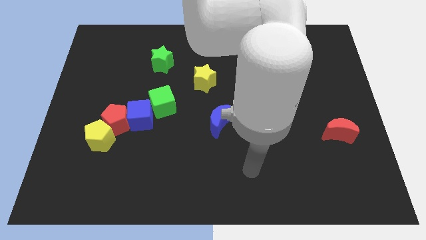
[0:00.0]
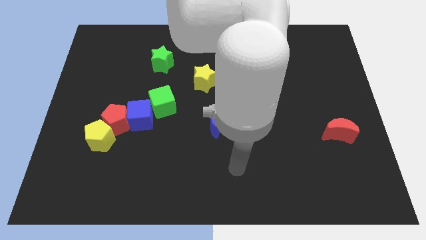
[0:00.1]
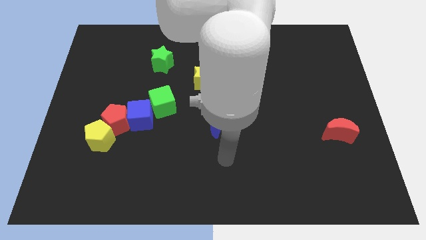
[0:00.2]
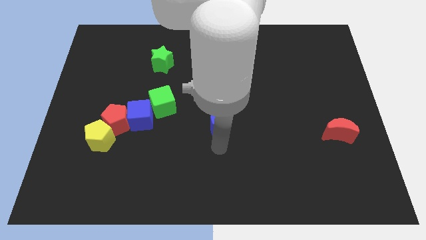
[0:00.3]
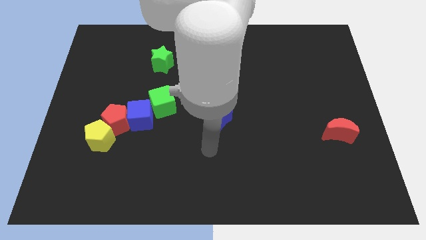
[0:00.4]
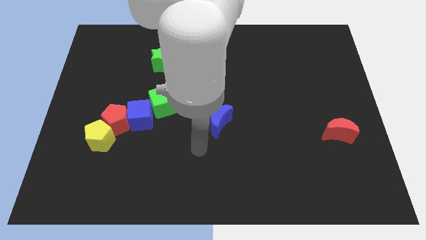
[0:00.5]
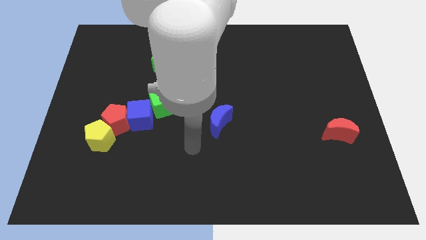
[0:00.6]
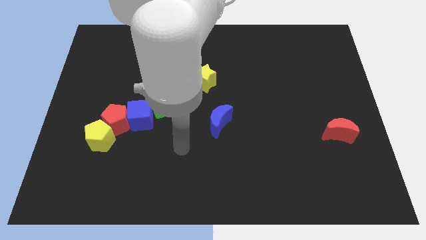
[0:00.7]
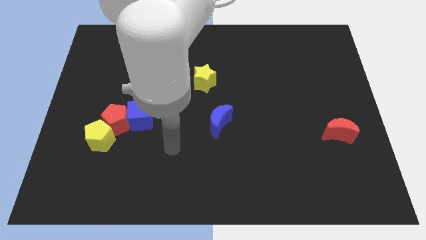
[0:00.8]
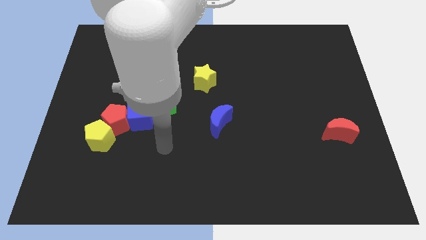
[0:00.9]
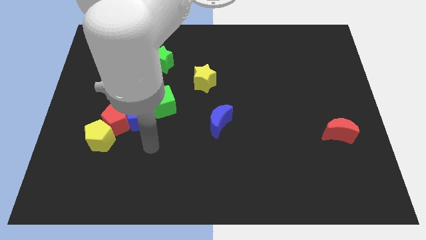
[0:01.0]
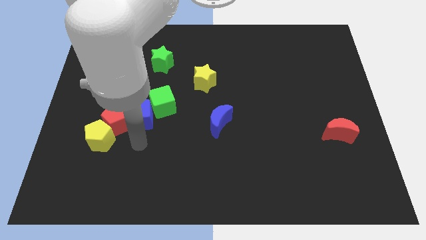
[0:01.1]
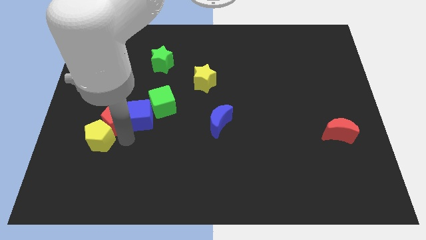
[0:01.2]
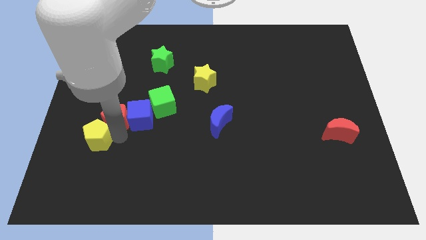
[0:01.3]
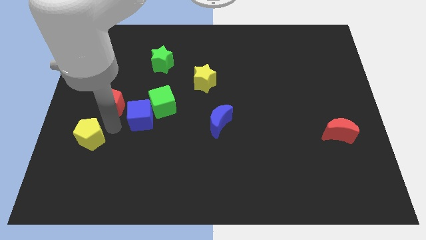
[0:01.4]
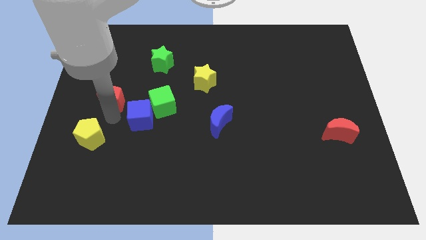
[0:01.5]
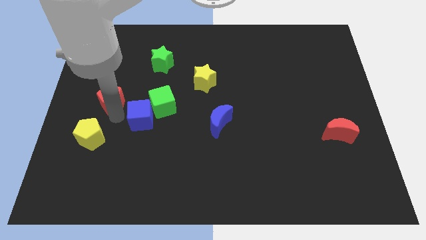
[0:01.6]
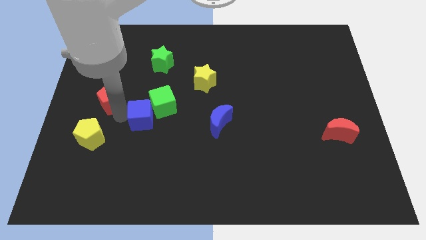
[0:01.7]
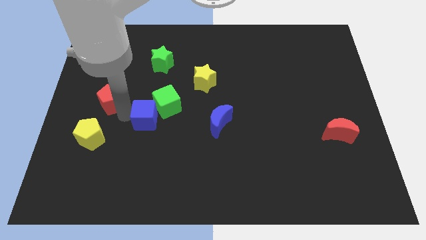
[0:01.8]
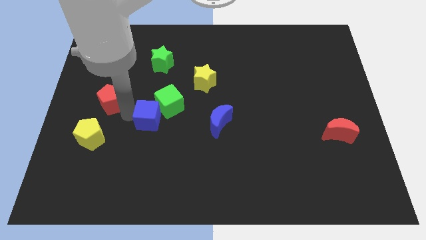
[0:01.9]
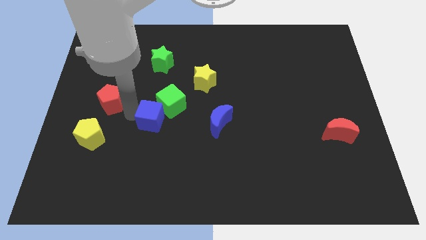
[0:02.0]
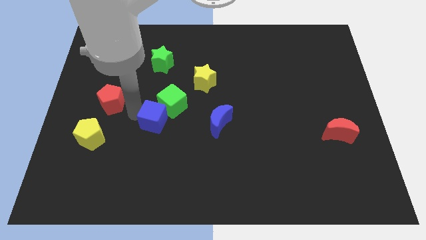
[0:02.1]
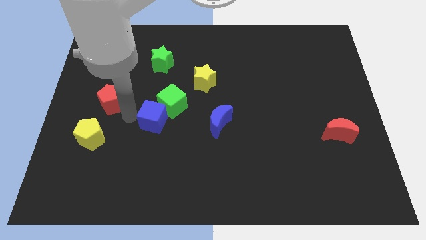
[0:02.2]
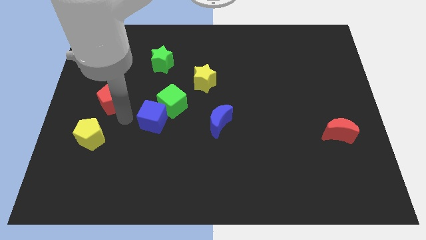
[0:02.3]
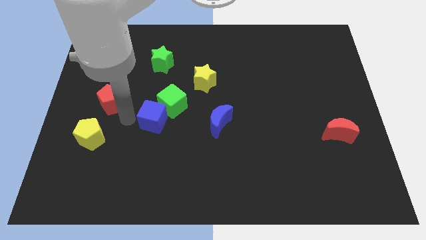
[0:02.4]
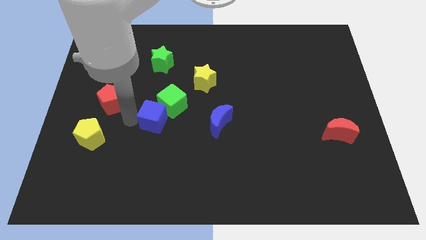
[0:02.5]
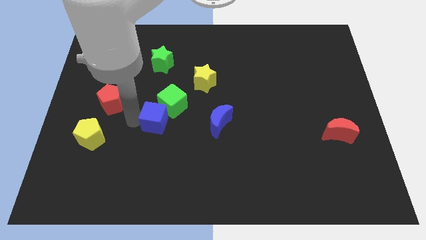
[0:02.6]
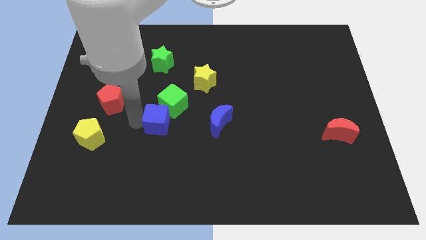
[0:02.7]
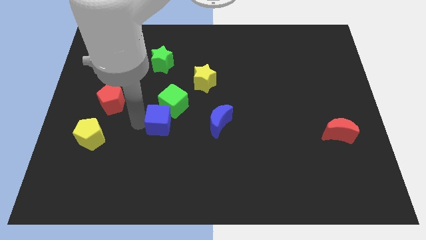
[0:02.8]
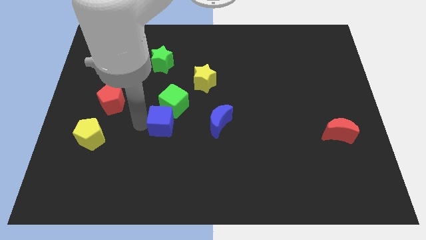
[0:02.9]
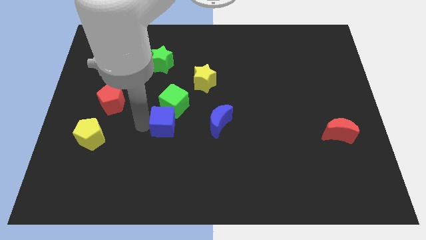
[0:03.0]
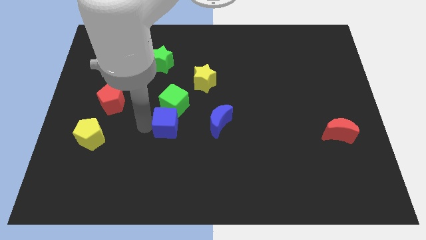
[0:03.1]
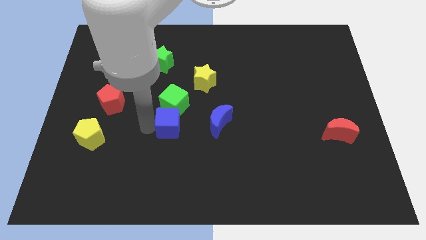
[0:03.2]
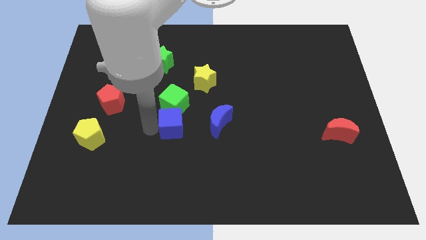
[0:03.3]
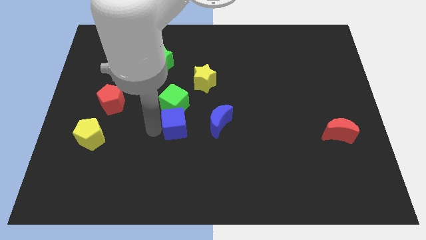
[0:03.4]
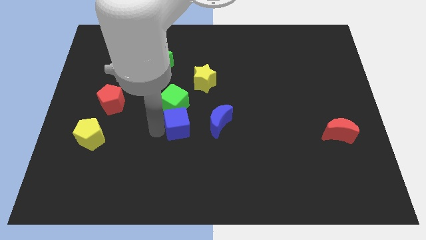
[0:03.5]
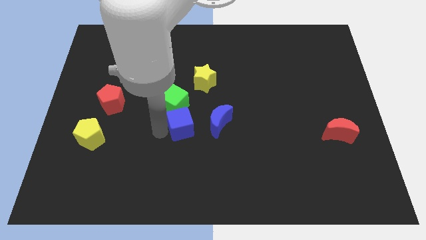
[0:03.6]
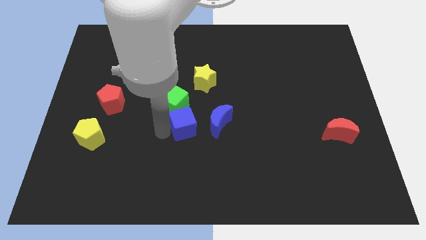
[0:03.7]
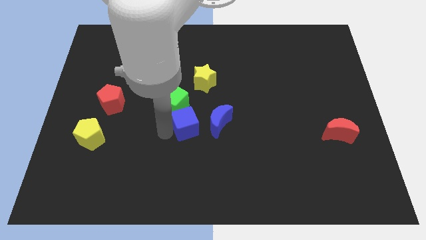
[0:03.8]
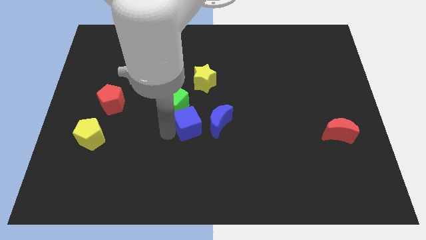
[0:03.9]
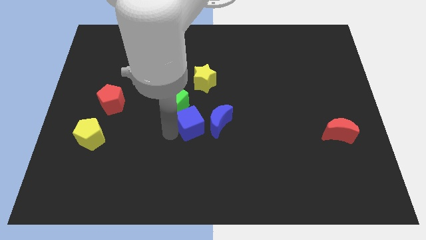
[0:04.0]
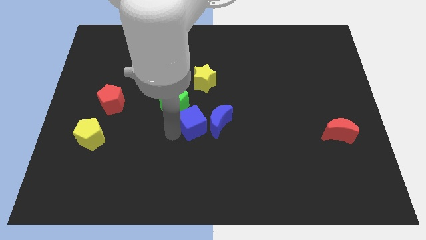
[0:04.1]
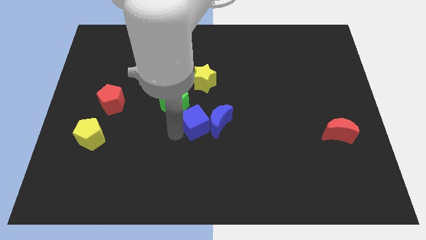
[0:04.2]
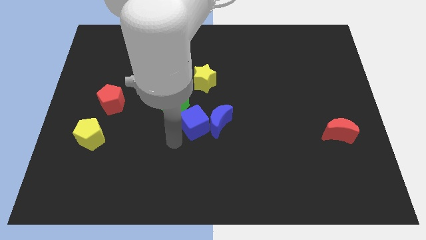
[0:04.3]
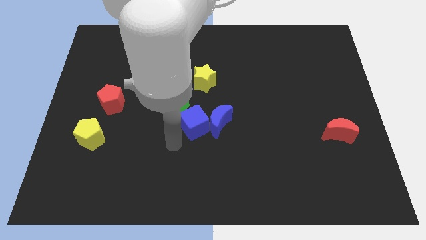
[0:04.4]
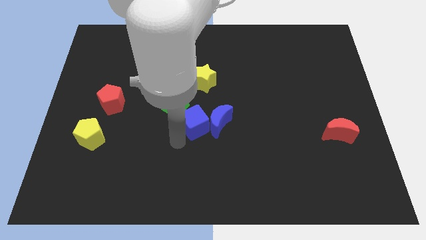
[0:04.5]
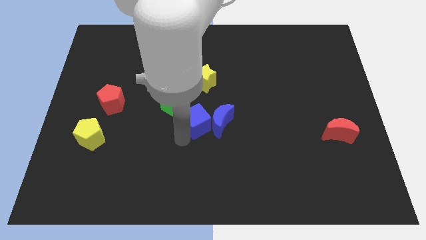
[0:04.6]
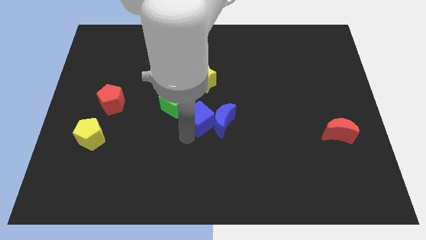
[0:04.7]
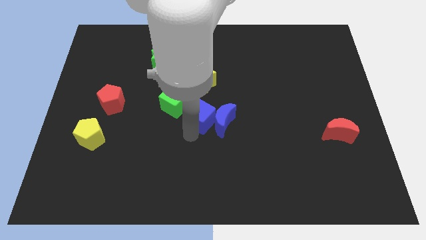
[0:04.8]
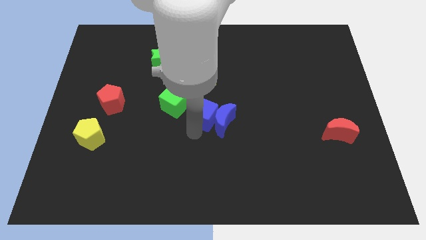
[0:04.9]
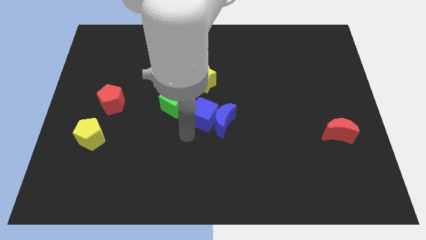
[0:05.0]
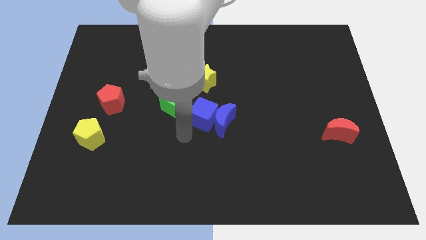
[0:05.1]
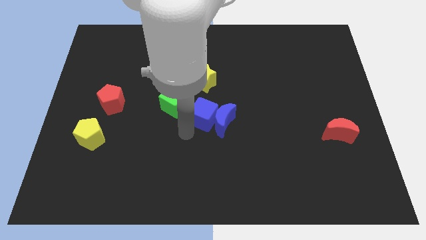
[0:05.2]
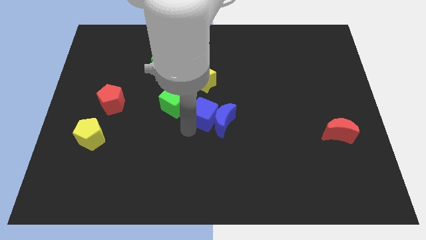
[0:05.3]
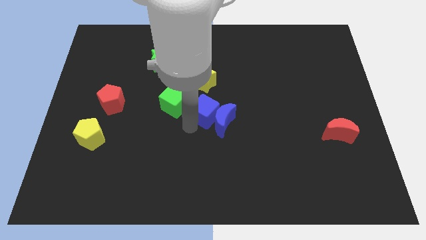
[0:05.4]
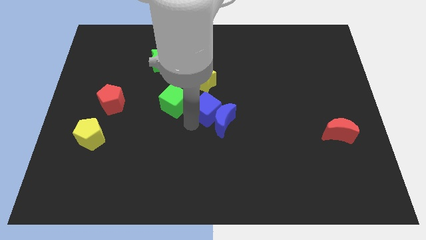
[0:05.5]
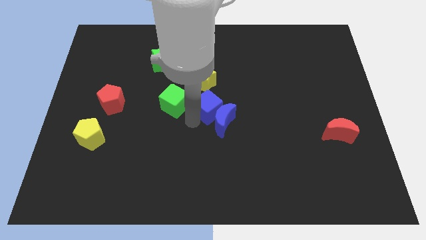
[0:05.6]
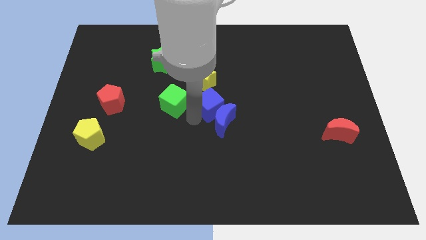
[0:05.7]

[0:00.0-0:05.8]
move the blue cube to the bottom right side of the yellow star

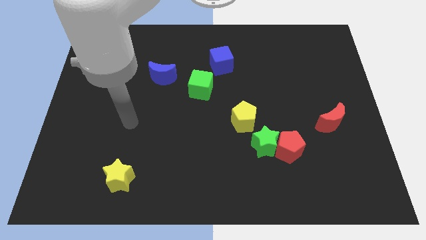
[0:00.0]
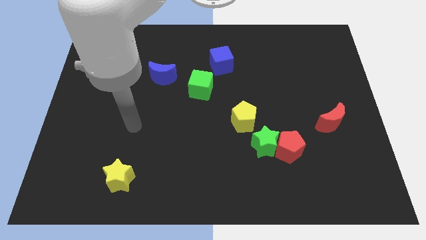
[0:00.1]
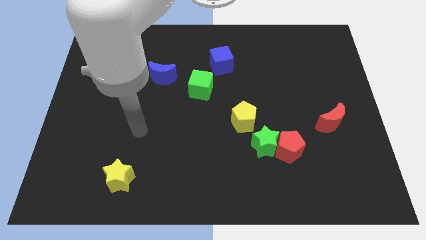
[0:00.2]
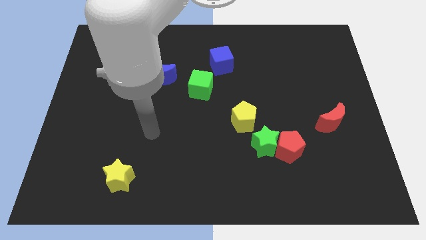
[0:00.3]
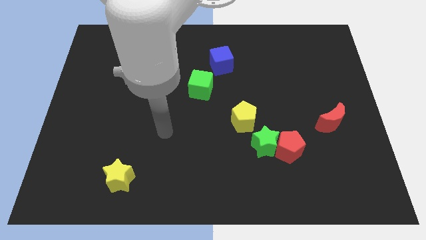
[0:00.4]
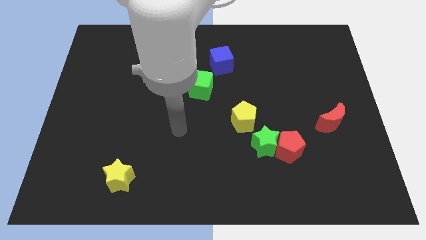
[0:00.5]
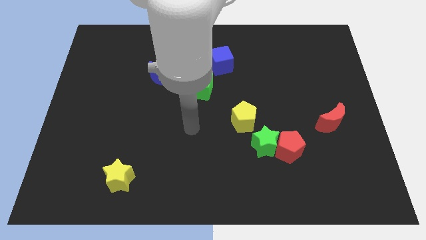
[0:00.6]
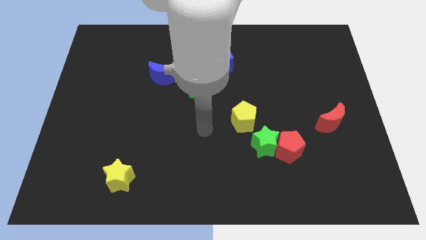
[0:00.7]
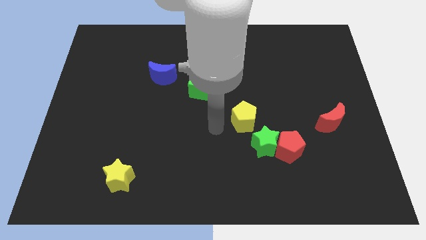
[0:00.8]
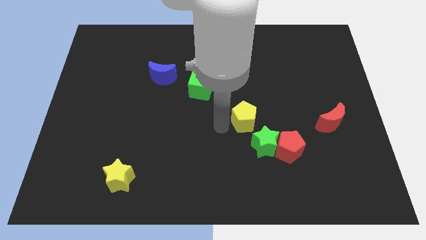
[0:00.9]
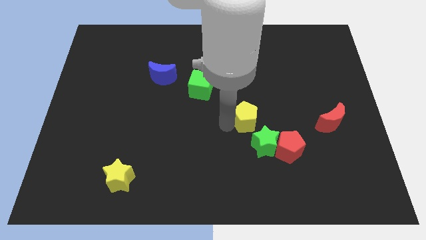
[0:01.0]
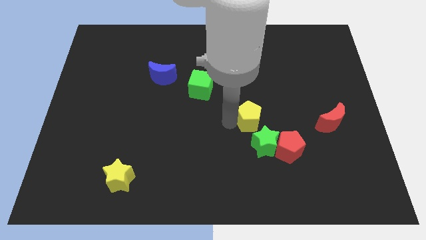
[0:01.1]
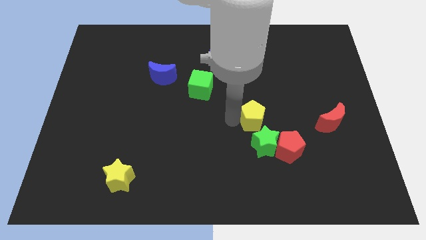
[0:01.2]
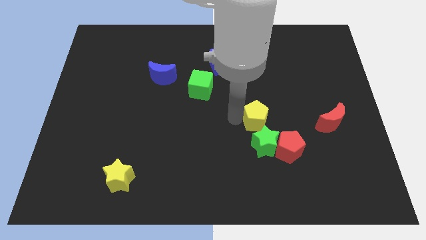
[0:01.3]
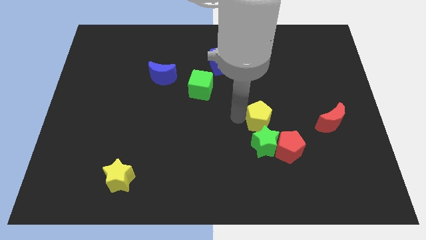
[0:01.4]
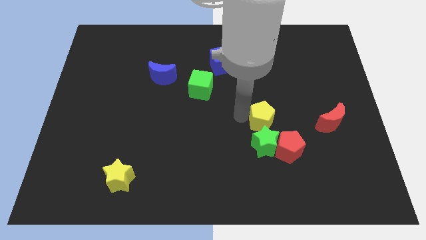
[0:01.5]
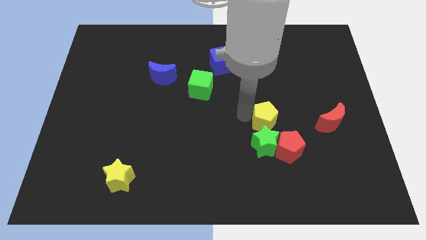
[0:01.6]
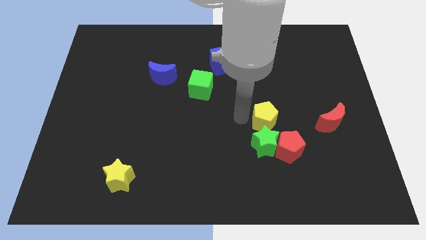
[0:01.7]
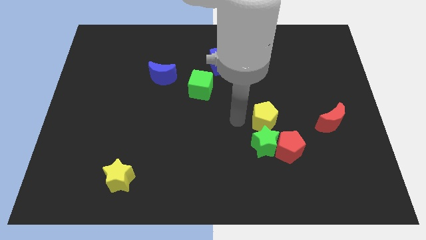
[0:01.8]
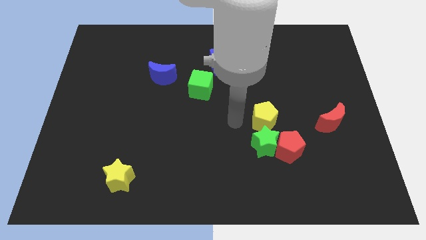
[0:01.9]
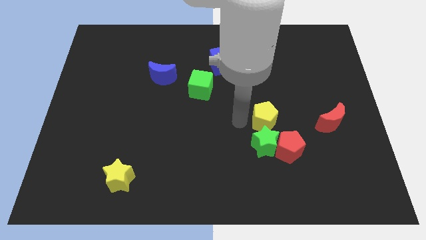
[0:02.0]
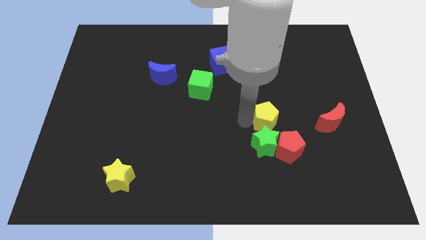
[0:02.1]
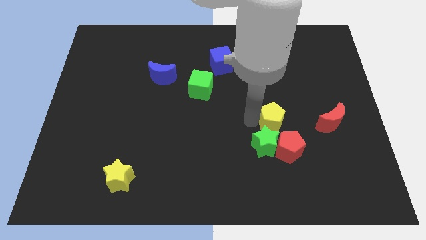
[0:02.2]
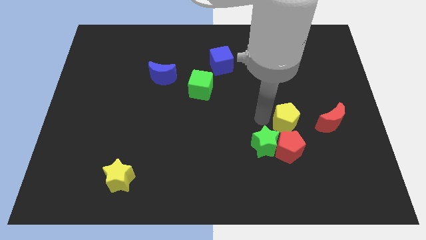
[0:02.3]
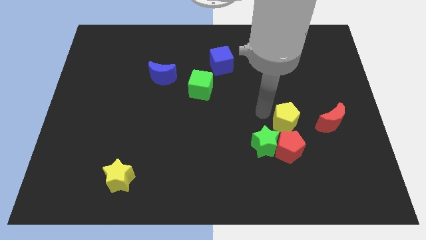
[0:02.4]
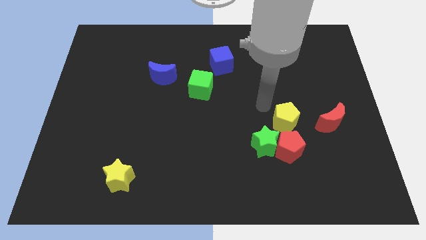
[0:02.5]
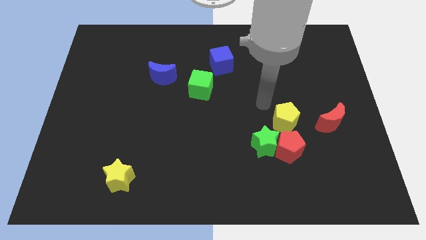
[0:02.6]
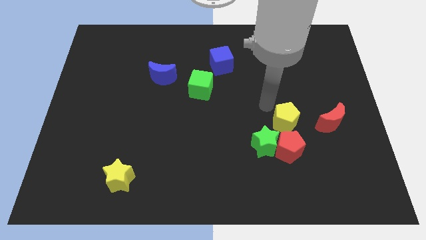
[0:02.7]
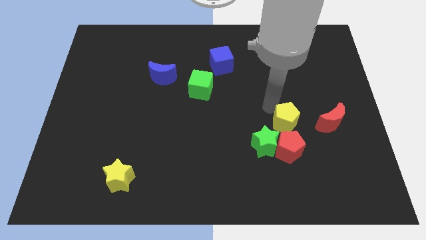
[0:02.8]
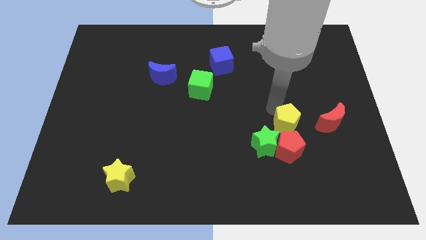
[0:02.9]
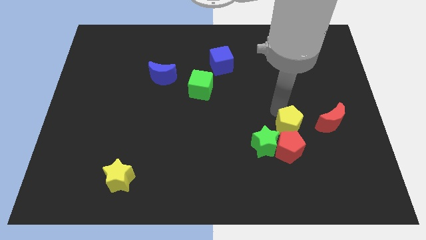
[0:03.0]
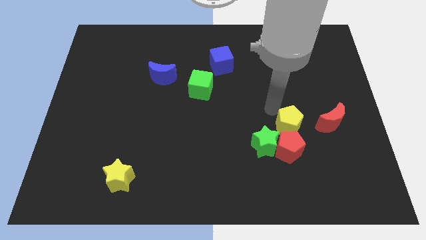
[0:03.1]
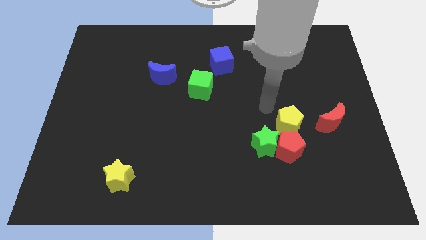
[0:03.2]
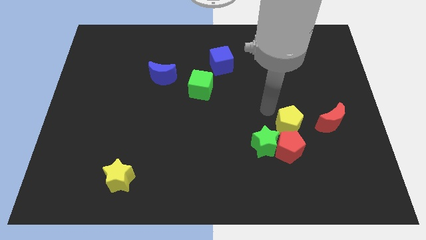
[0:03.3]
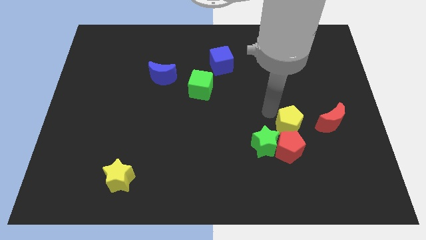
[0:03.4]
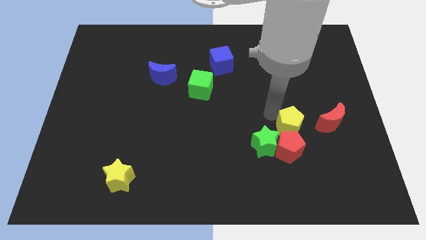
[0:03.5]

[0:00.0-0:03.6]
slide the yellow pentagon just right of the green star
